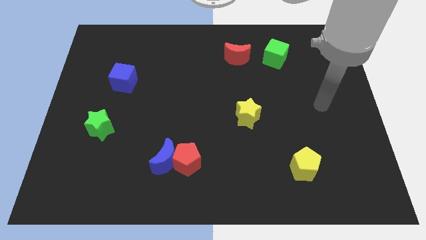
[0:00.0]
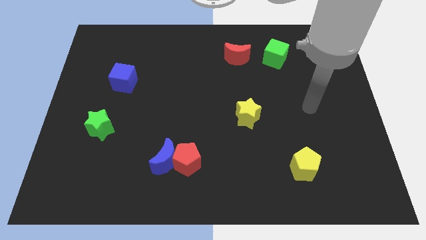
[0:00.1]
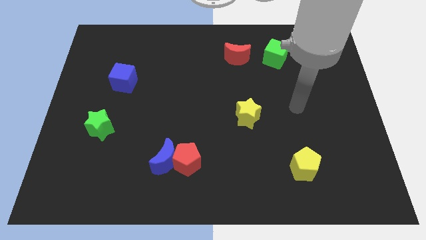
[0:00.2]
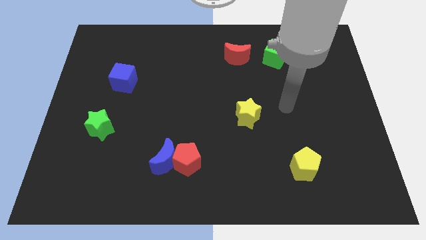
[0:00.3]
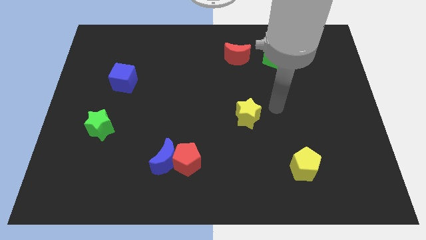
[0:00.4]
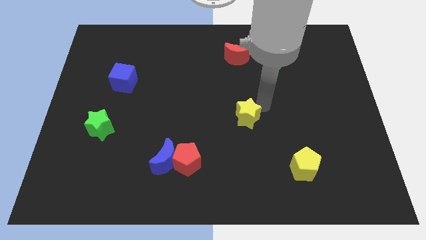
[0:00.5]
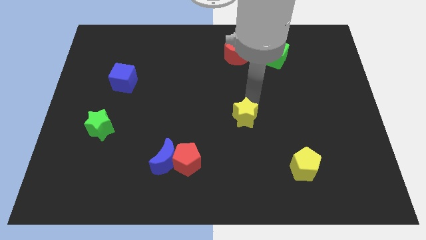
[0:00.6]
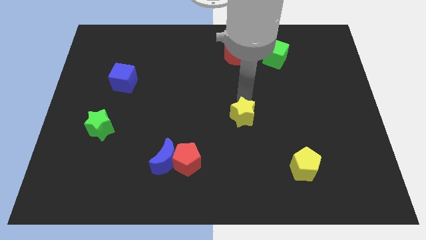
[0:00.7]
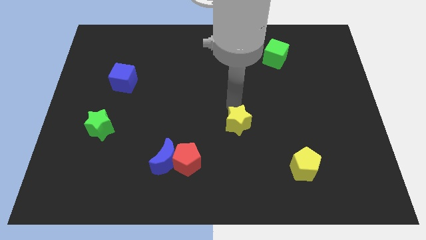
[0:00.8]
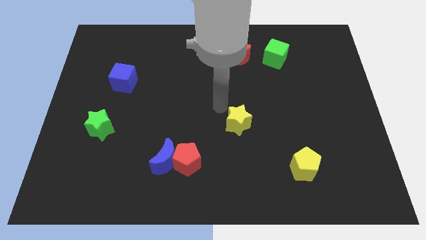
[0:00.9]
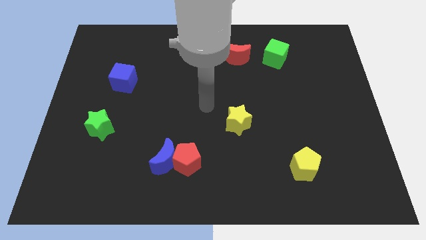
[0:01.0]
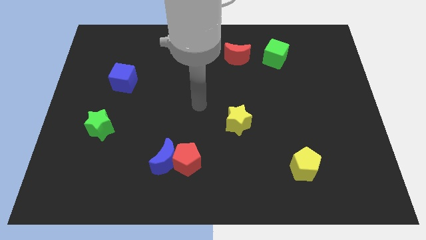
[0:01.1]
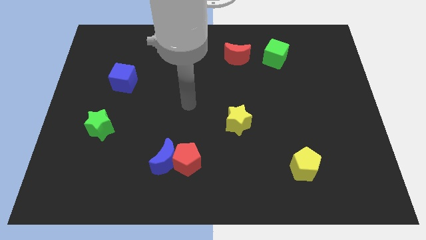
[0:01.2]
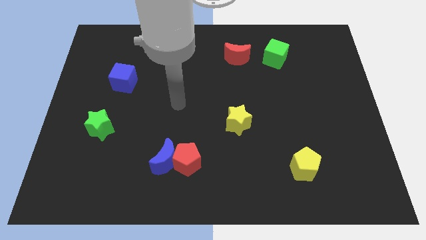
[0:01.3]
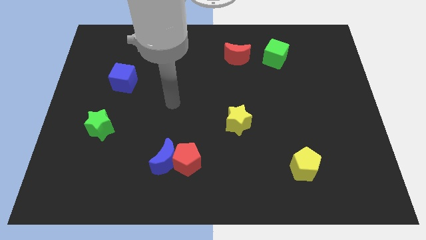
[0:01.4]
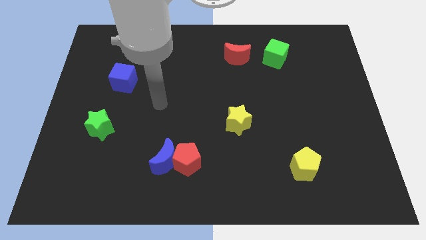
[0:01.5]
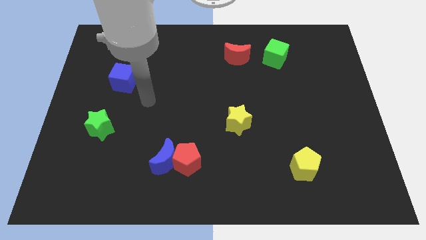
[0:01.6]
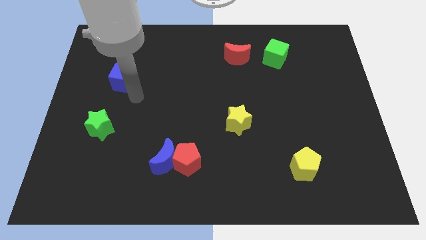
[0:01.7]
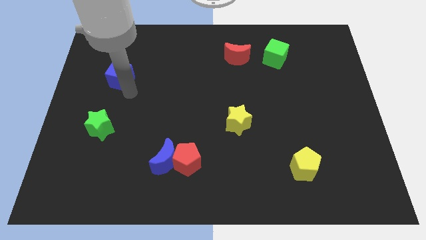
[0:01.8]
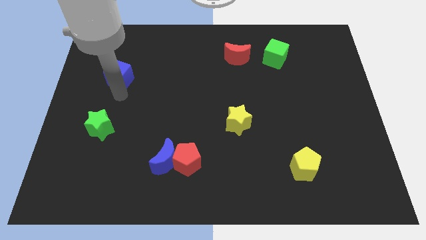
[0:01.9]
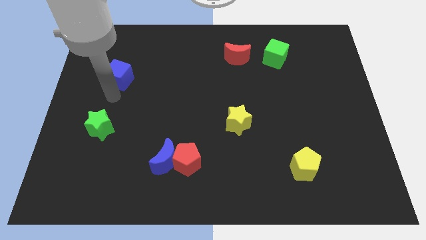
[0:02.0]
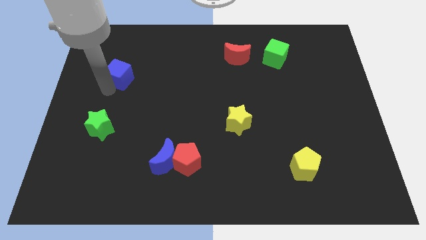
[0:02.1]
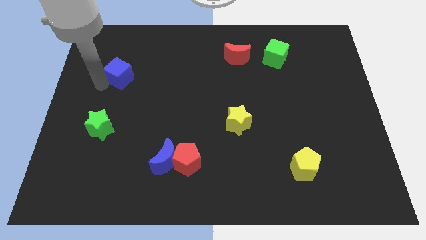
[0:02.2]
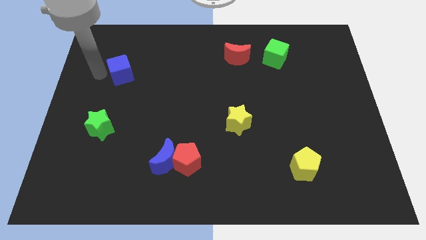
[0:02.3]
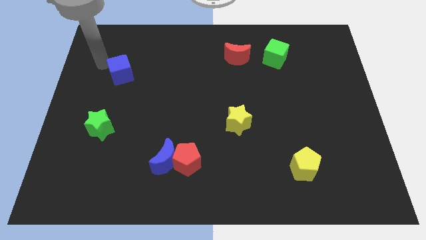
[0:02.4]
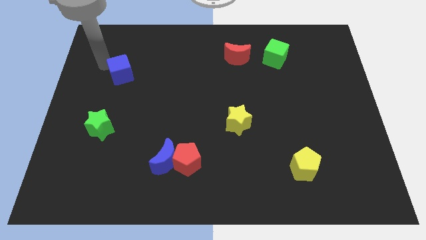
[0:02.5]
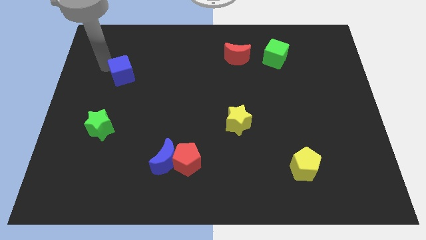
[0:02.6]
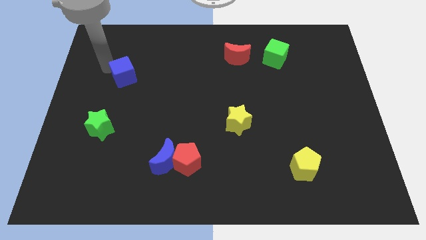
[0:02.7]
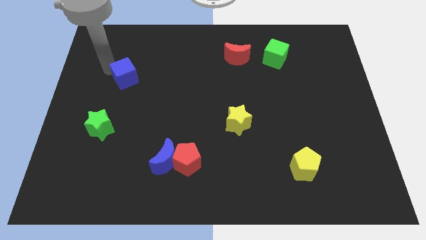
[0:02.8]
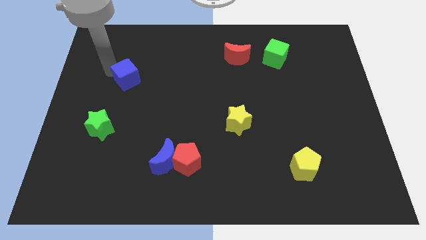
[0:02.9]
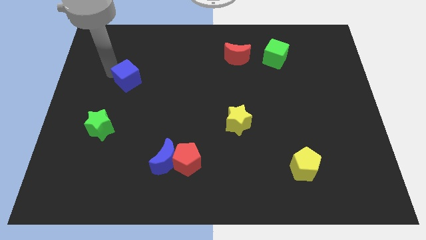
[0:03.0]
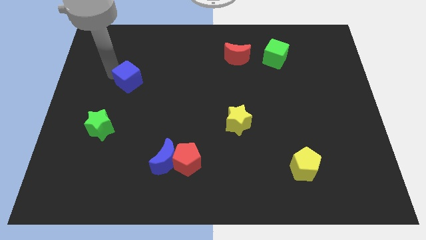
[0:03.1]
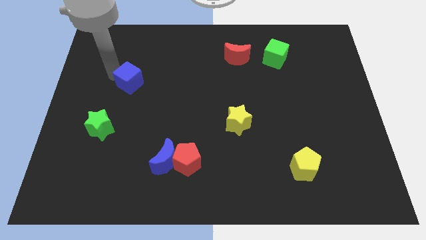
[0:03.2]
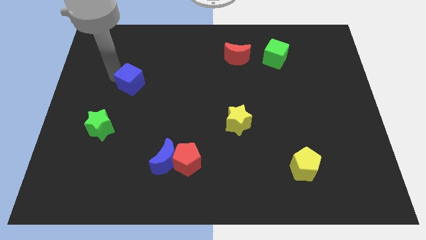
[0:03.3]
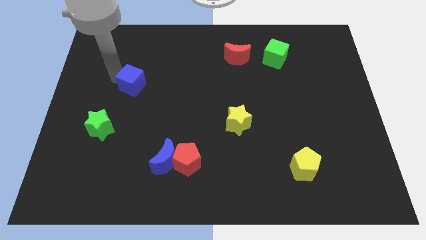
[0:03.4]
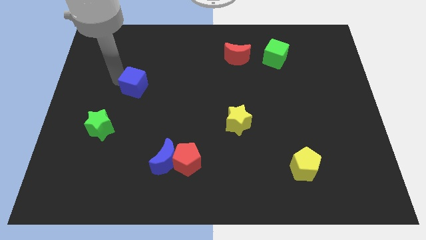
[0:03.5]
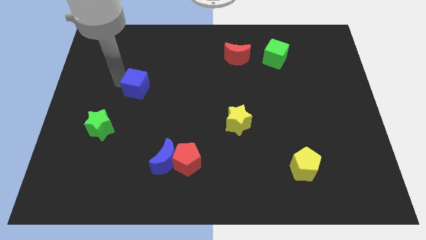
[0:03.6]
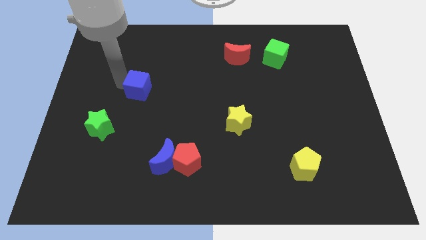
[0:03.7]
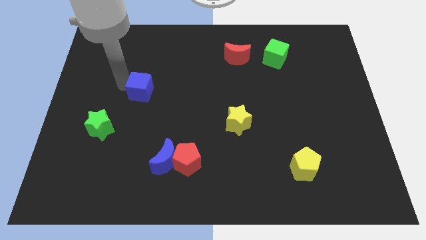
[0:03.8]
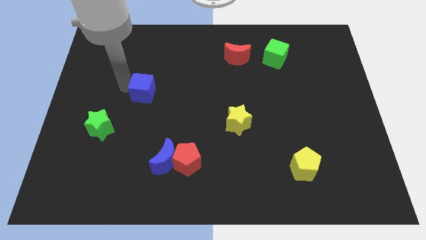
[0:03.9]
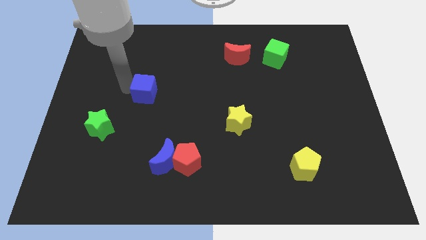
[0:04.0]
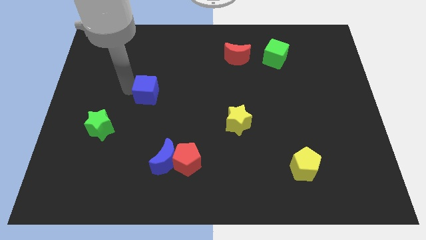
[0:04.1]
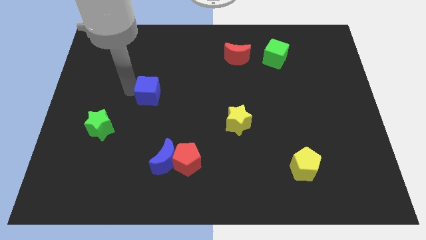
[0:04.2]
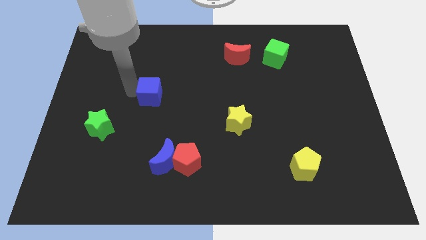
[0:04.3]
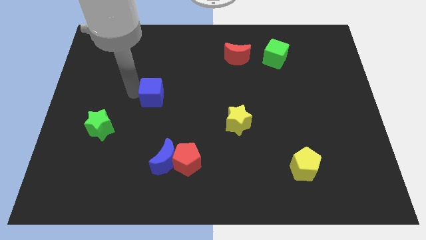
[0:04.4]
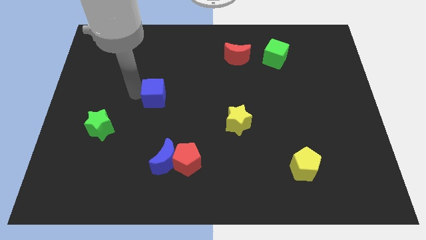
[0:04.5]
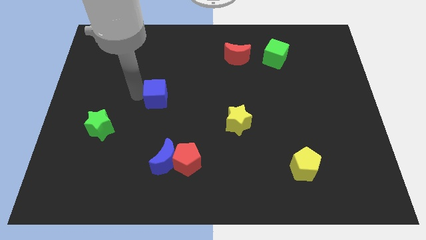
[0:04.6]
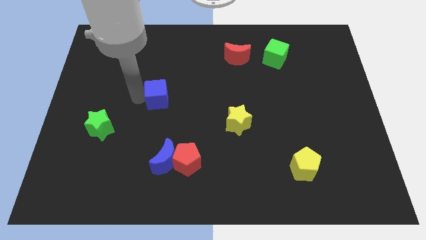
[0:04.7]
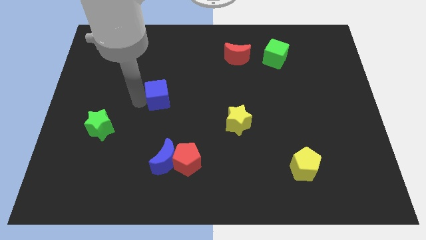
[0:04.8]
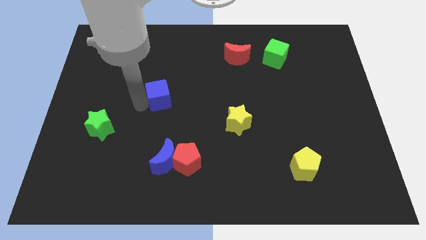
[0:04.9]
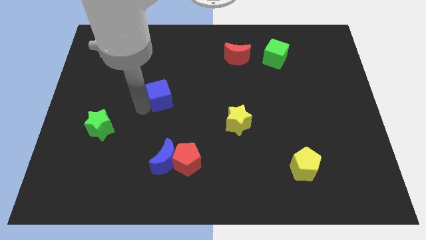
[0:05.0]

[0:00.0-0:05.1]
slide the blue cube to the center

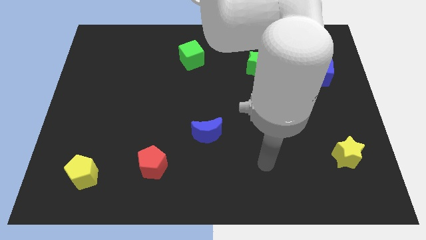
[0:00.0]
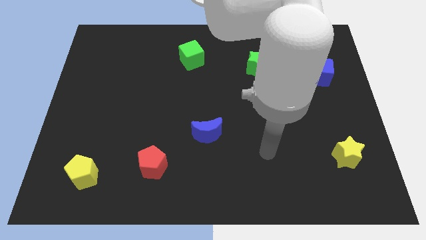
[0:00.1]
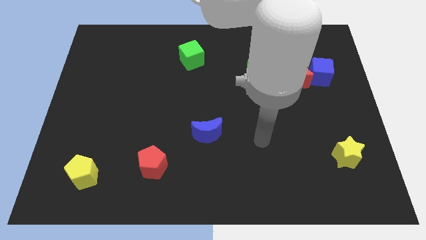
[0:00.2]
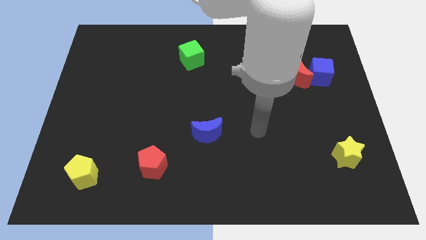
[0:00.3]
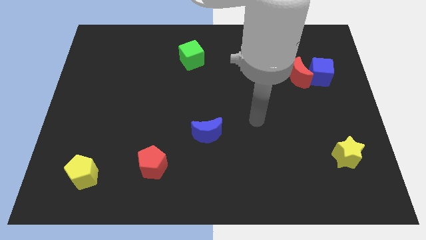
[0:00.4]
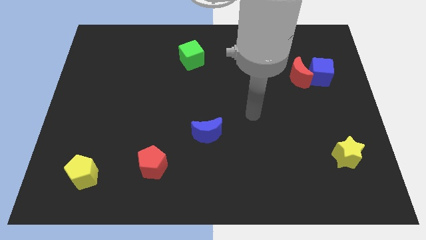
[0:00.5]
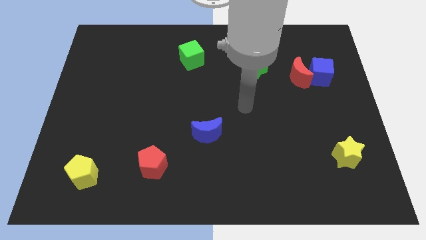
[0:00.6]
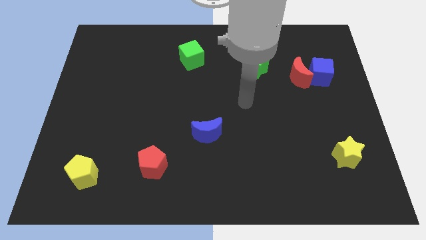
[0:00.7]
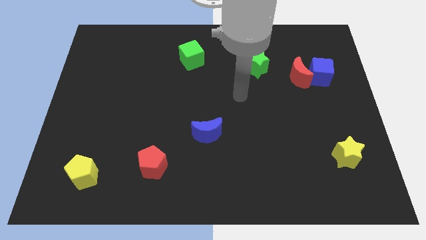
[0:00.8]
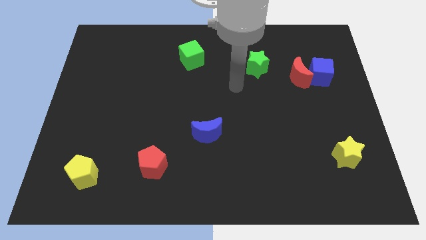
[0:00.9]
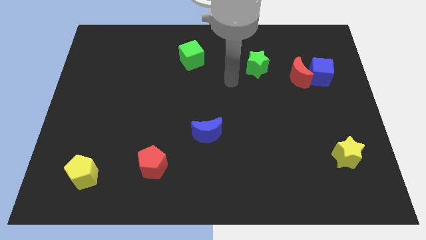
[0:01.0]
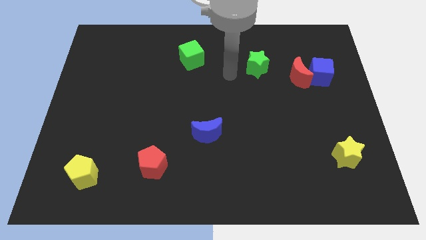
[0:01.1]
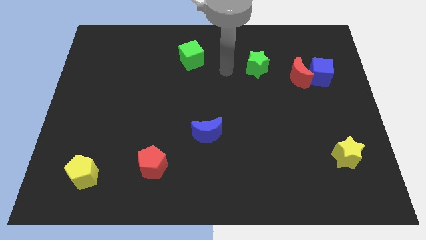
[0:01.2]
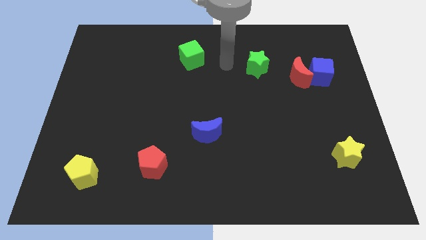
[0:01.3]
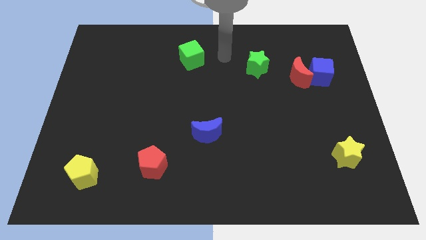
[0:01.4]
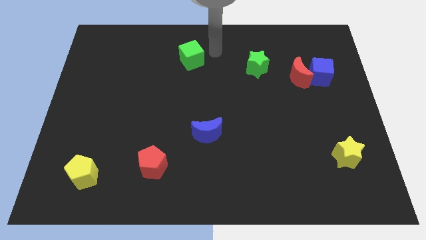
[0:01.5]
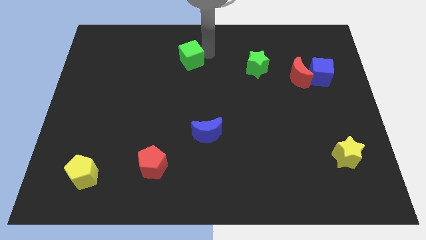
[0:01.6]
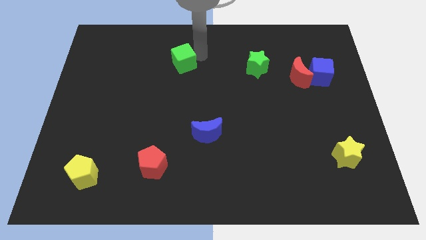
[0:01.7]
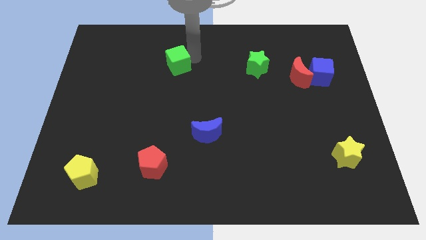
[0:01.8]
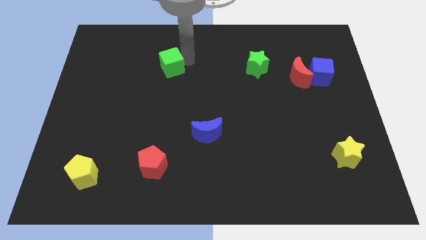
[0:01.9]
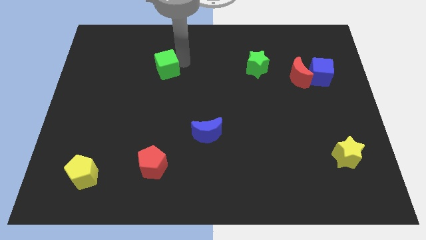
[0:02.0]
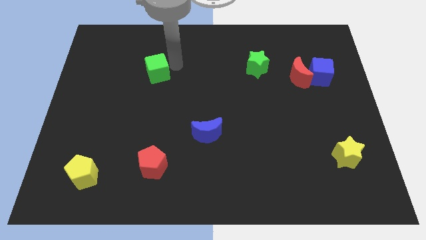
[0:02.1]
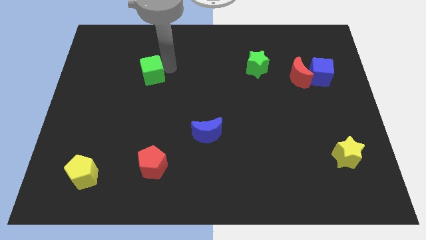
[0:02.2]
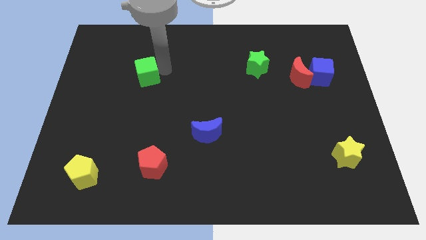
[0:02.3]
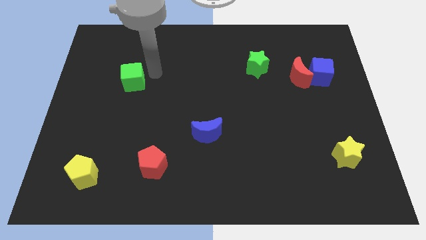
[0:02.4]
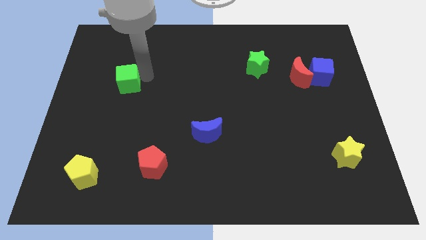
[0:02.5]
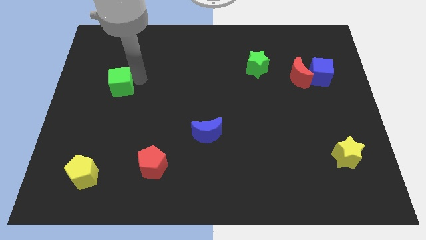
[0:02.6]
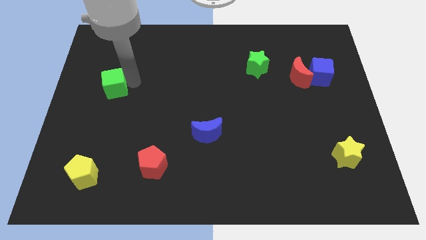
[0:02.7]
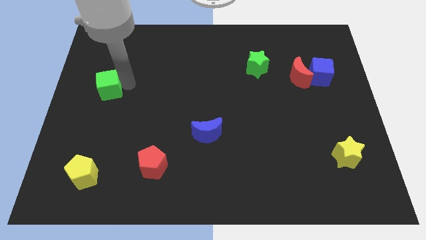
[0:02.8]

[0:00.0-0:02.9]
push the green cube to the left side
